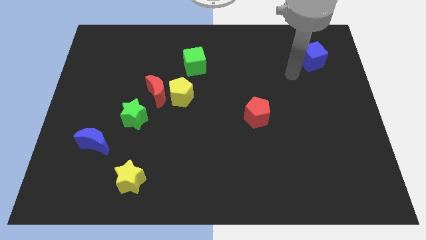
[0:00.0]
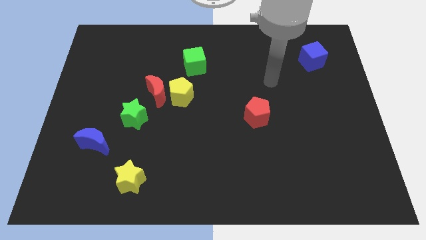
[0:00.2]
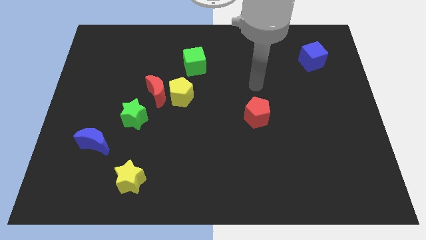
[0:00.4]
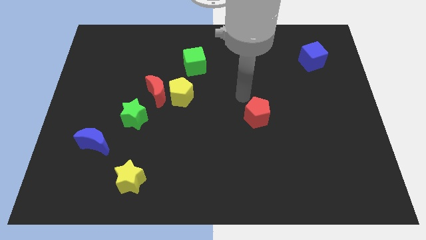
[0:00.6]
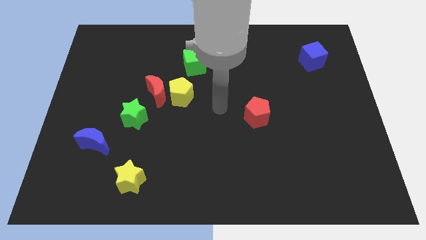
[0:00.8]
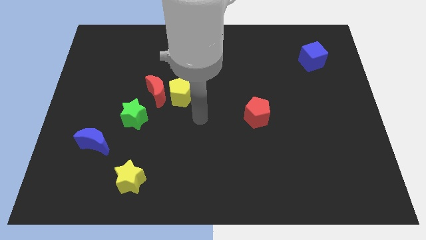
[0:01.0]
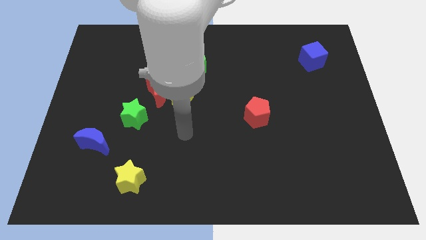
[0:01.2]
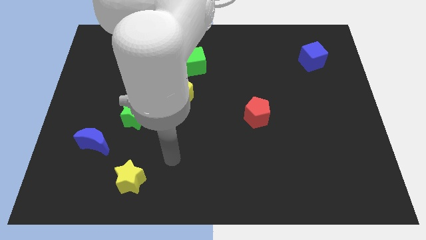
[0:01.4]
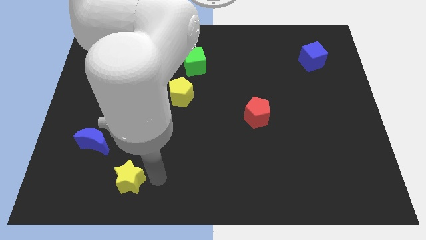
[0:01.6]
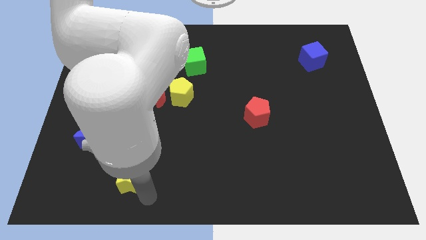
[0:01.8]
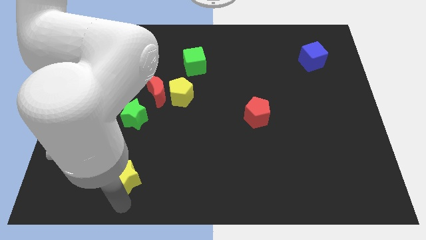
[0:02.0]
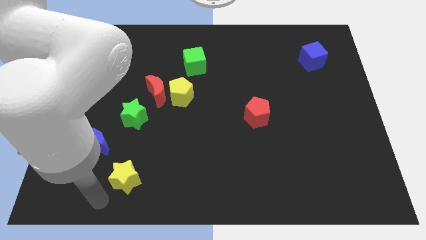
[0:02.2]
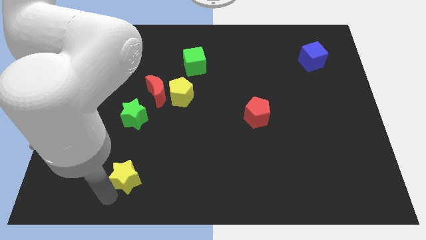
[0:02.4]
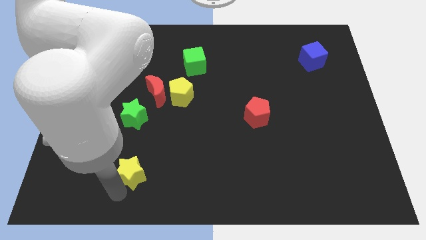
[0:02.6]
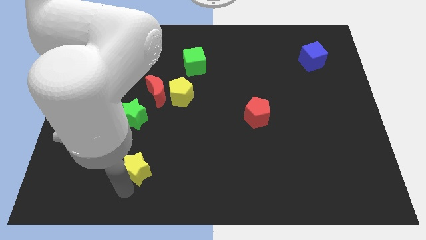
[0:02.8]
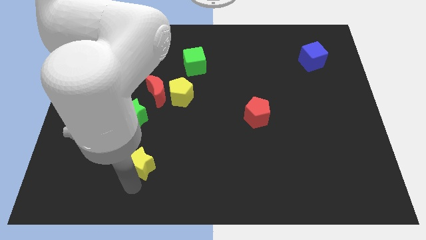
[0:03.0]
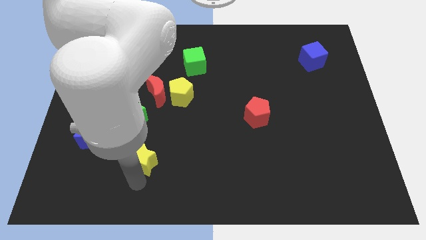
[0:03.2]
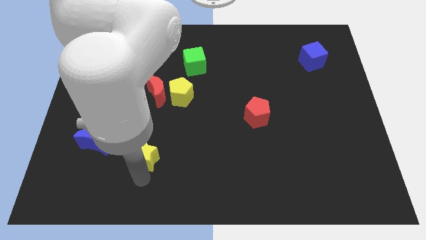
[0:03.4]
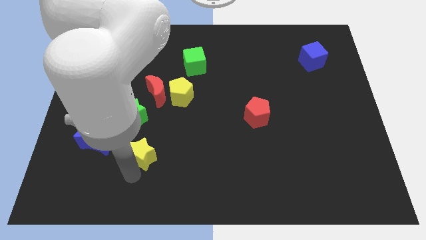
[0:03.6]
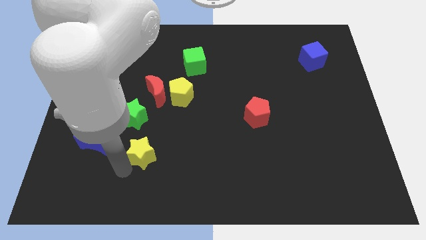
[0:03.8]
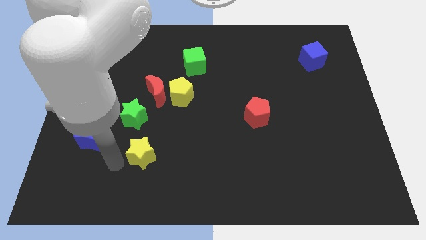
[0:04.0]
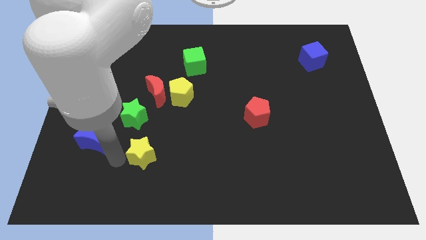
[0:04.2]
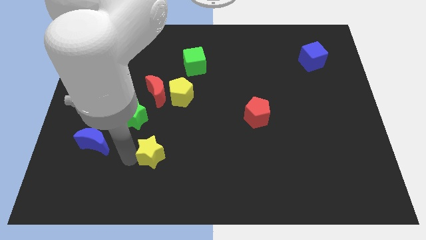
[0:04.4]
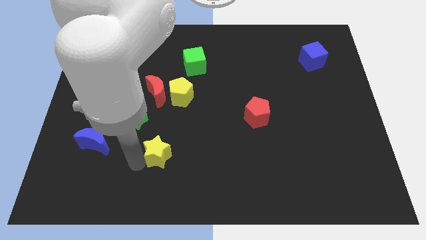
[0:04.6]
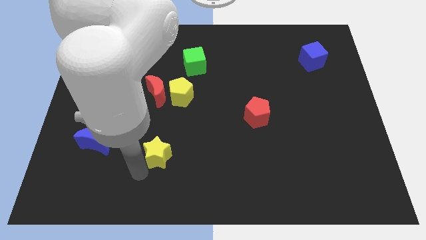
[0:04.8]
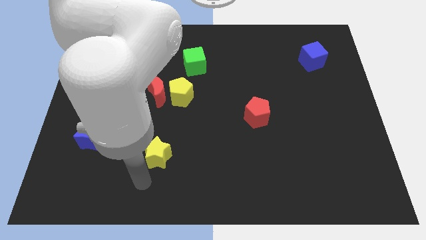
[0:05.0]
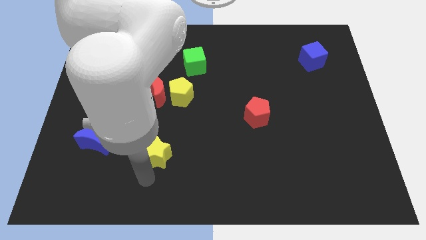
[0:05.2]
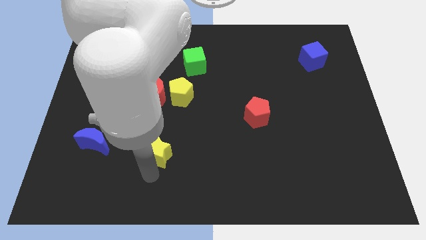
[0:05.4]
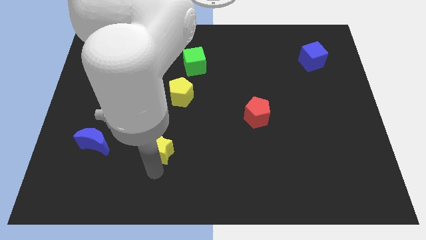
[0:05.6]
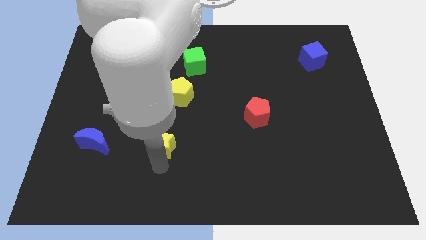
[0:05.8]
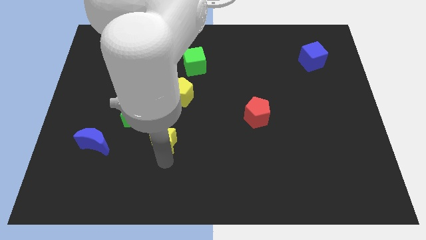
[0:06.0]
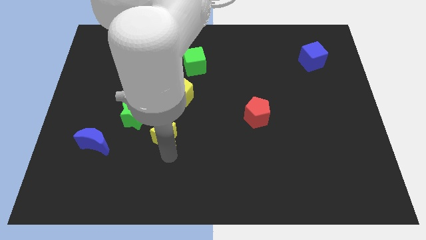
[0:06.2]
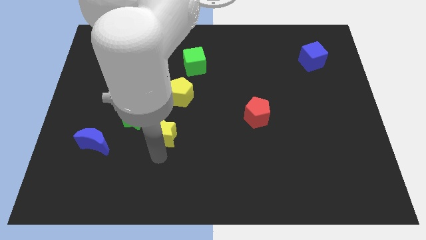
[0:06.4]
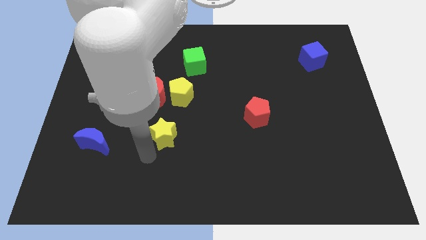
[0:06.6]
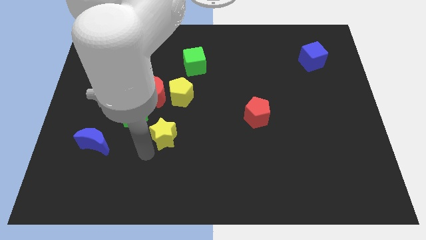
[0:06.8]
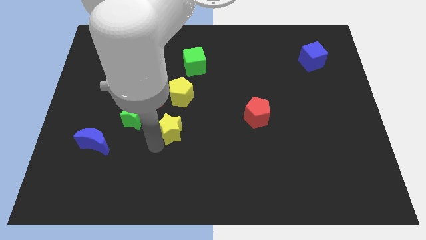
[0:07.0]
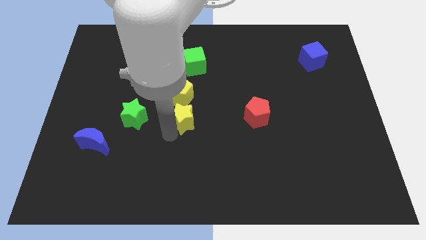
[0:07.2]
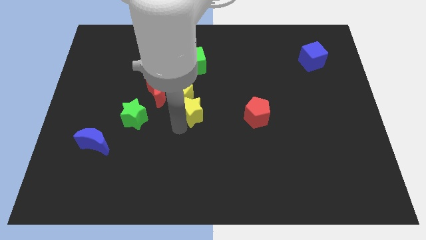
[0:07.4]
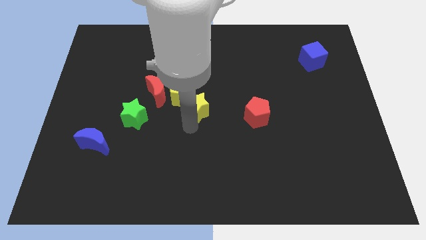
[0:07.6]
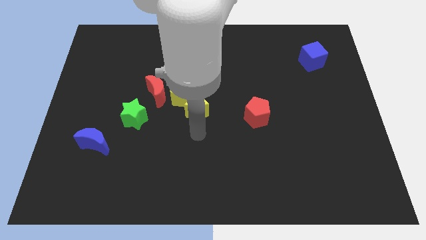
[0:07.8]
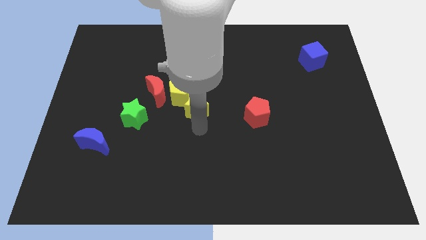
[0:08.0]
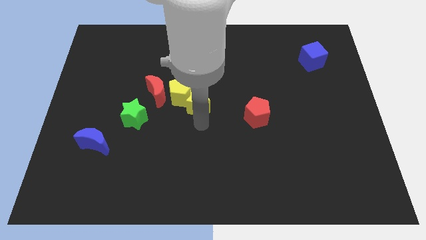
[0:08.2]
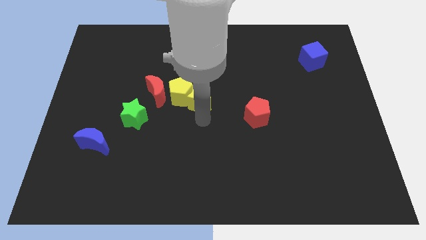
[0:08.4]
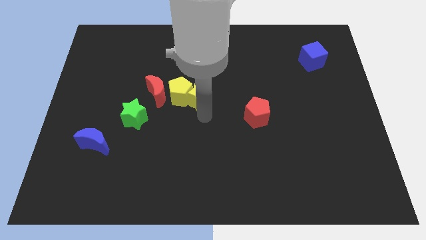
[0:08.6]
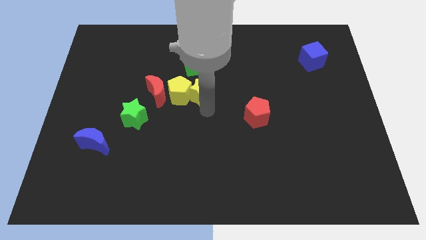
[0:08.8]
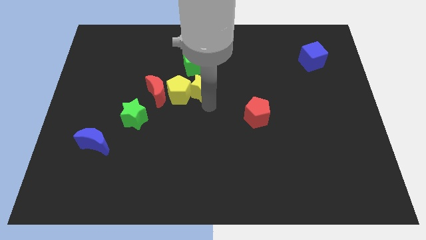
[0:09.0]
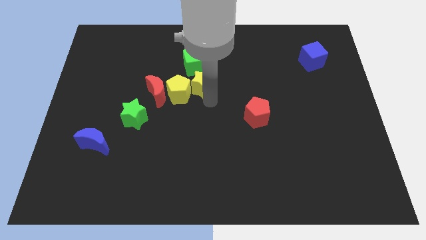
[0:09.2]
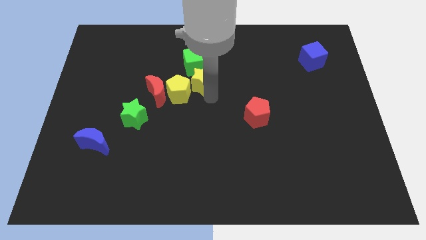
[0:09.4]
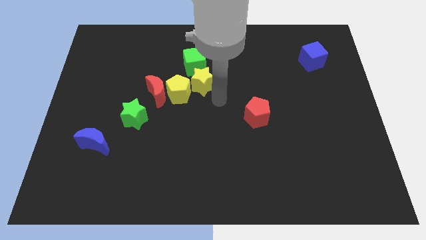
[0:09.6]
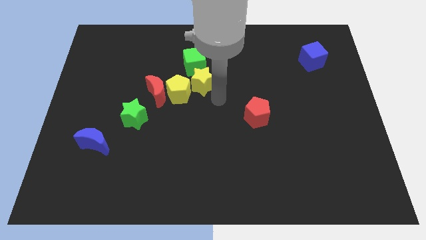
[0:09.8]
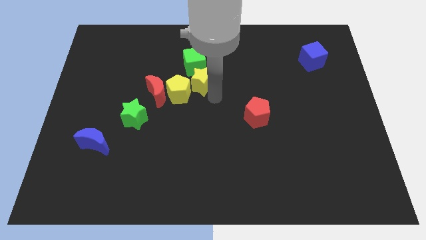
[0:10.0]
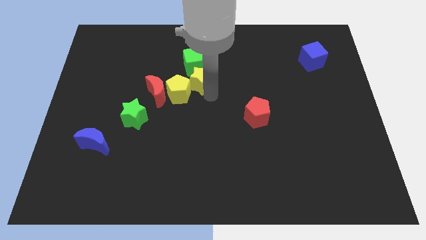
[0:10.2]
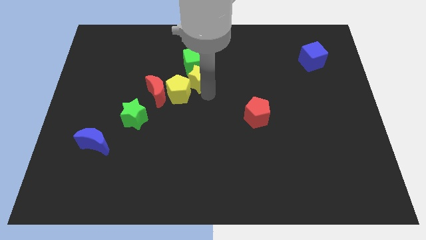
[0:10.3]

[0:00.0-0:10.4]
put the yellow star next to the green cube

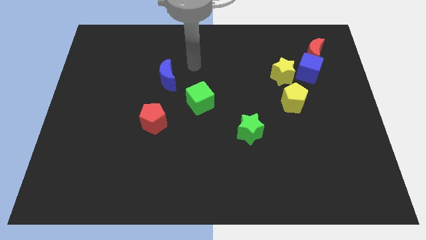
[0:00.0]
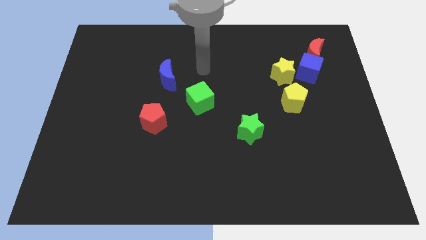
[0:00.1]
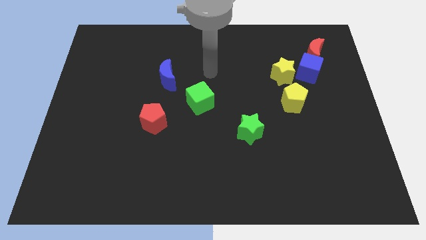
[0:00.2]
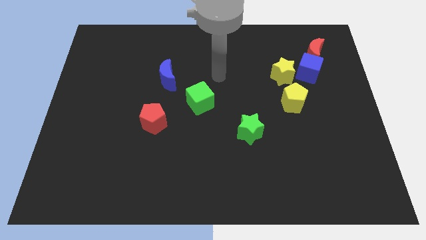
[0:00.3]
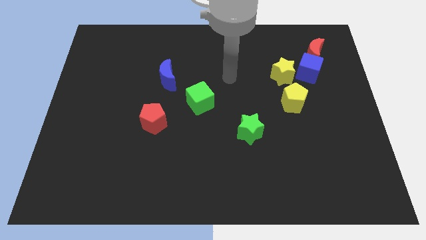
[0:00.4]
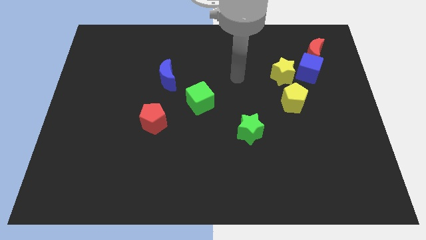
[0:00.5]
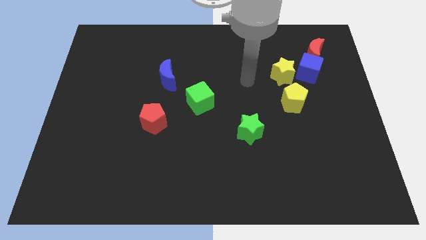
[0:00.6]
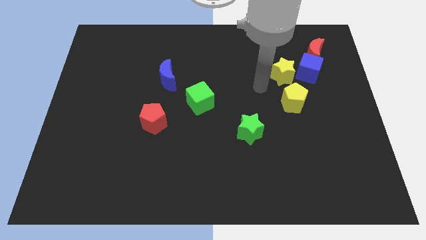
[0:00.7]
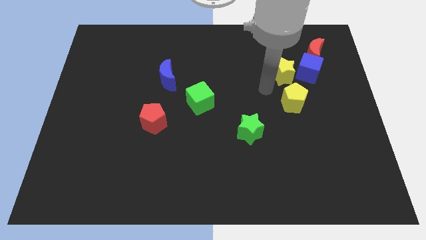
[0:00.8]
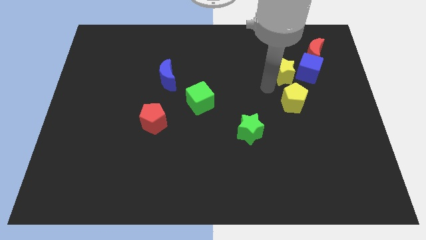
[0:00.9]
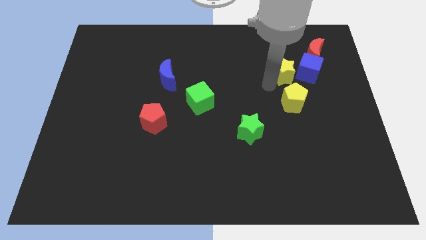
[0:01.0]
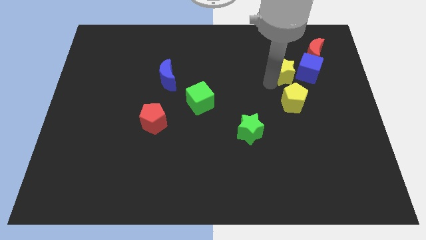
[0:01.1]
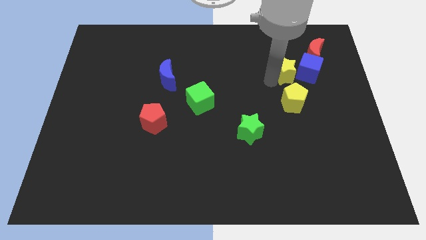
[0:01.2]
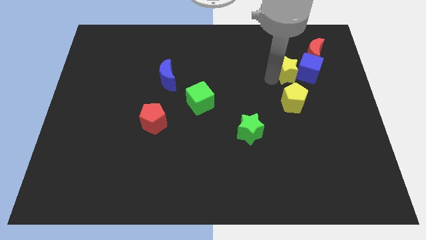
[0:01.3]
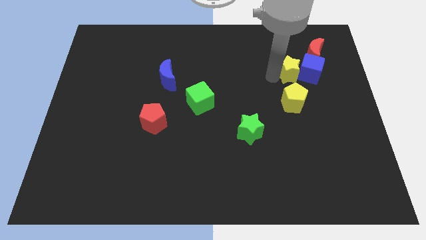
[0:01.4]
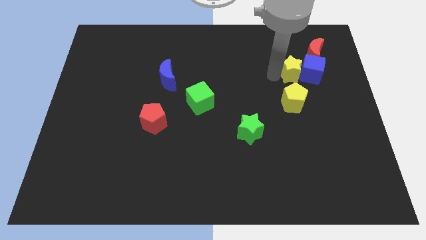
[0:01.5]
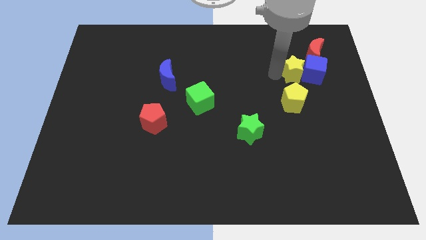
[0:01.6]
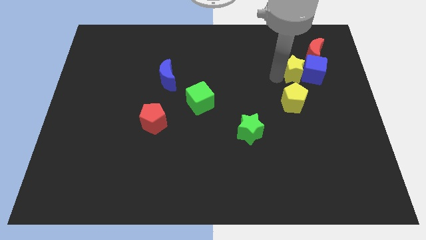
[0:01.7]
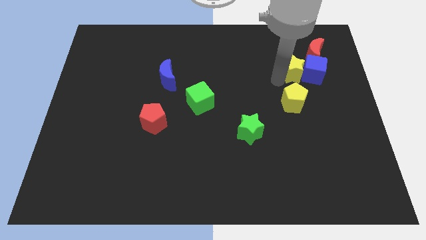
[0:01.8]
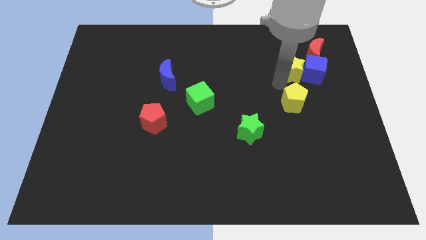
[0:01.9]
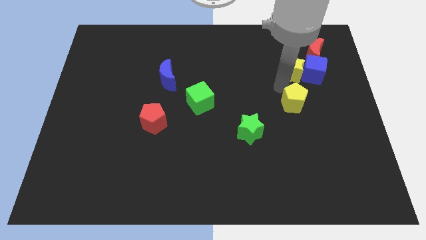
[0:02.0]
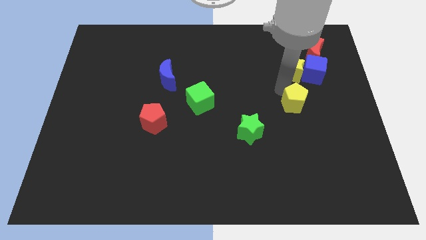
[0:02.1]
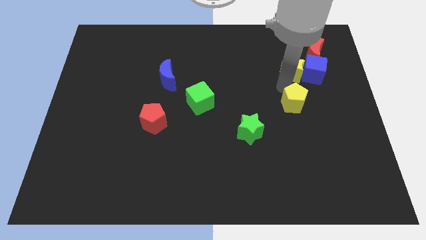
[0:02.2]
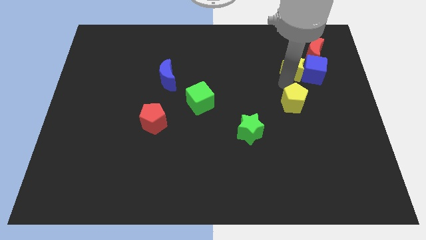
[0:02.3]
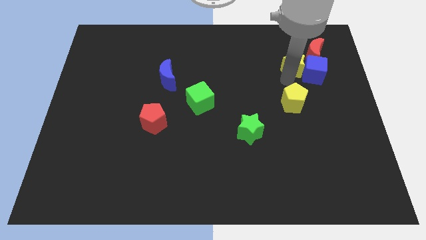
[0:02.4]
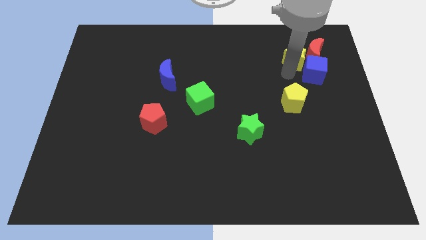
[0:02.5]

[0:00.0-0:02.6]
move the yellow star close to the red moon

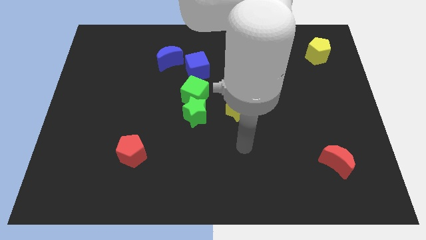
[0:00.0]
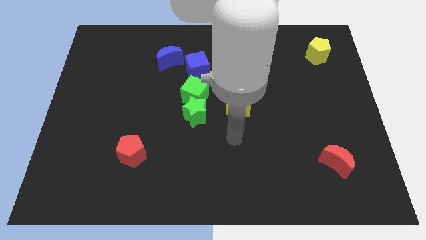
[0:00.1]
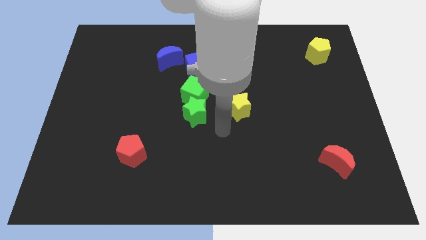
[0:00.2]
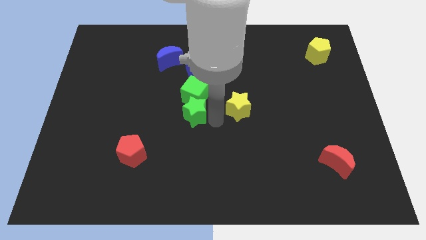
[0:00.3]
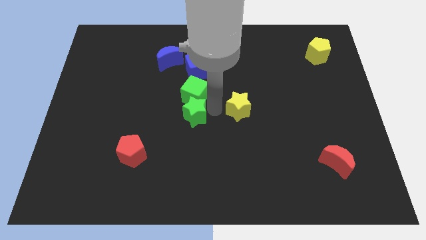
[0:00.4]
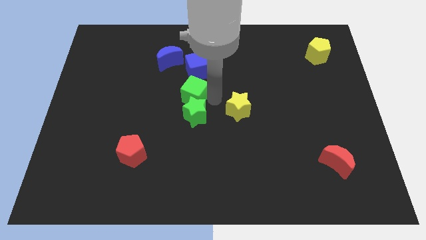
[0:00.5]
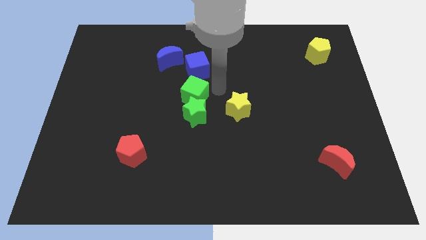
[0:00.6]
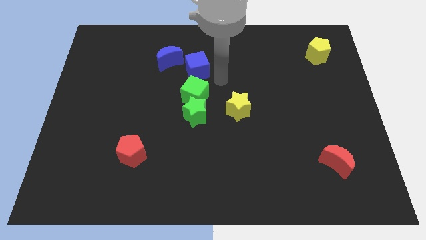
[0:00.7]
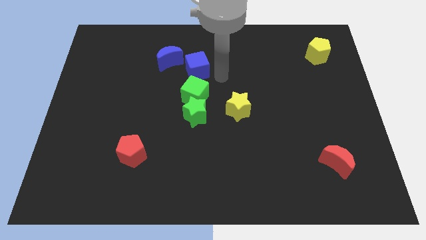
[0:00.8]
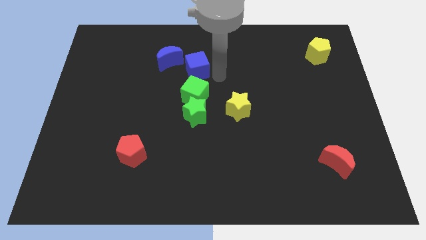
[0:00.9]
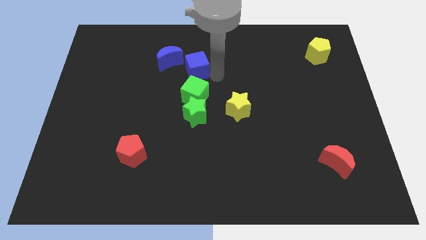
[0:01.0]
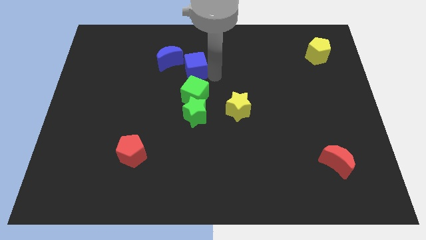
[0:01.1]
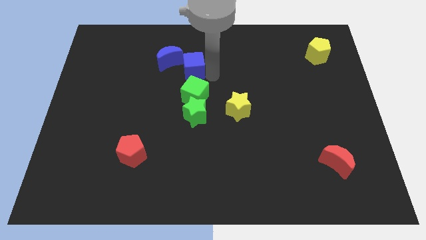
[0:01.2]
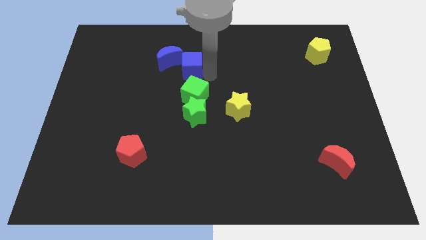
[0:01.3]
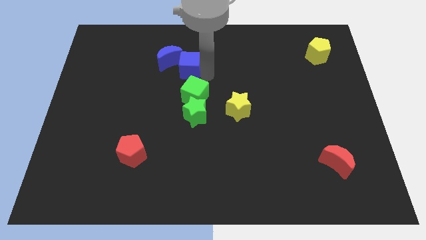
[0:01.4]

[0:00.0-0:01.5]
put the blue cube towards the blue moon
